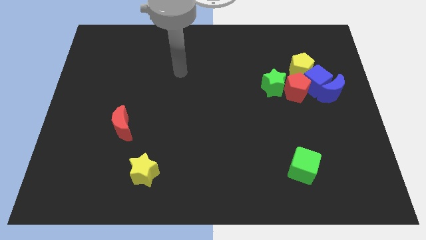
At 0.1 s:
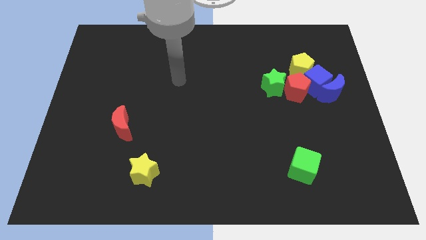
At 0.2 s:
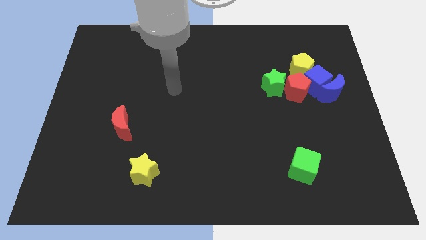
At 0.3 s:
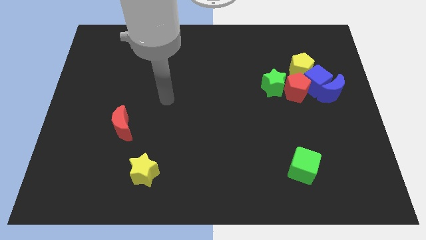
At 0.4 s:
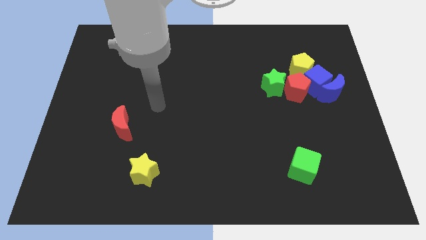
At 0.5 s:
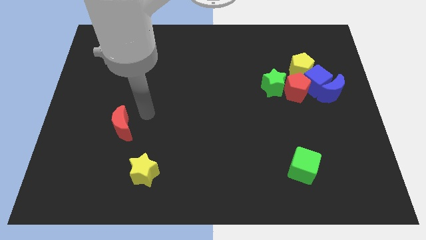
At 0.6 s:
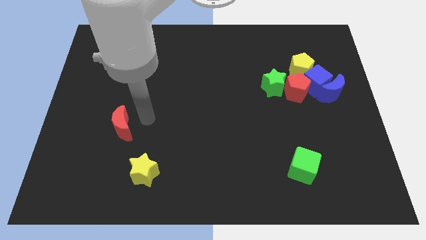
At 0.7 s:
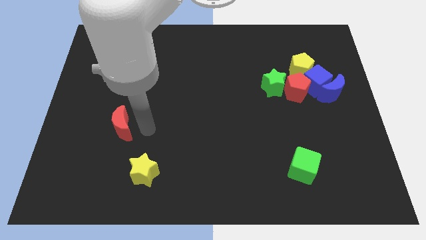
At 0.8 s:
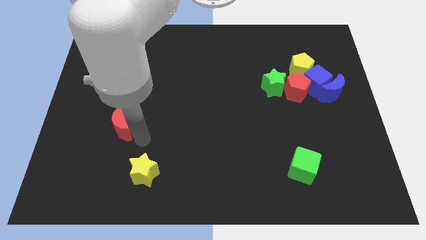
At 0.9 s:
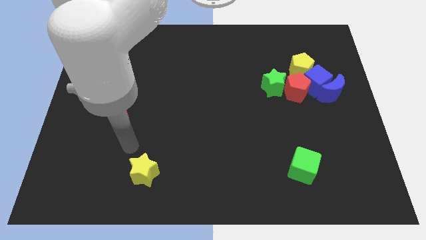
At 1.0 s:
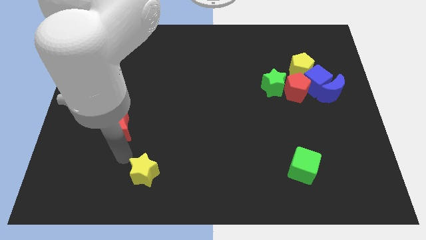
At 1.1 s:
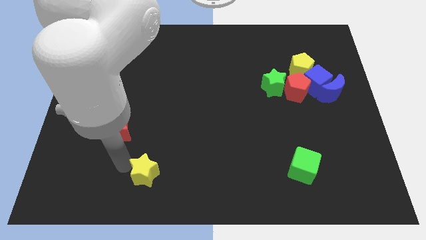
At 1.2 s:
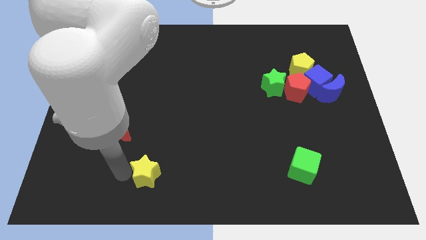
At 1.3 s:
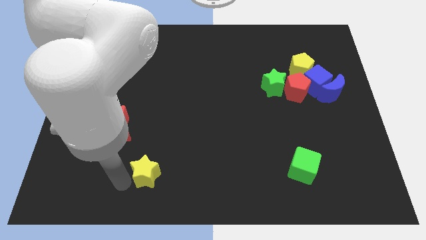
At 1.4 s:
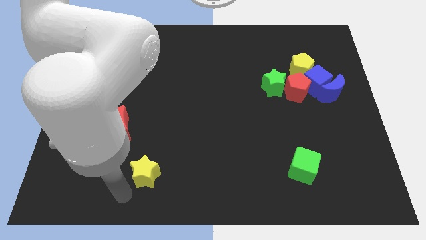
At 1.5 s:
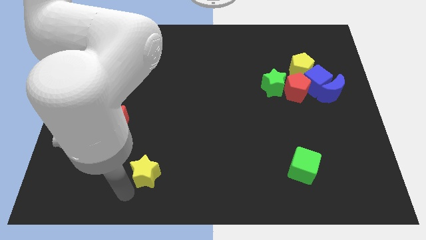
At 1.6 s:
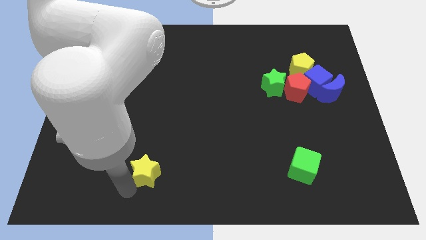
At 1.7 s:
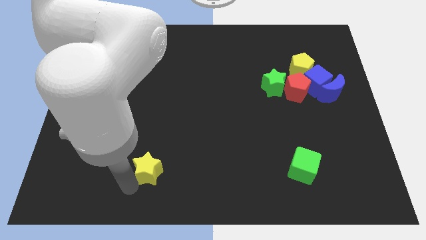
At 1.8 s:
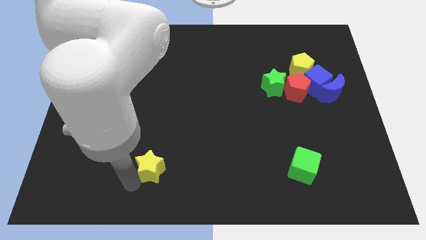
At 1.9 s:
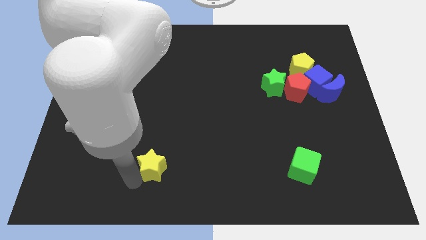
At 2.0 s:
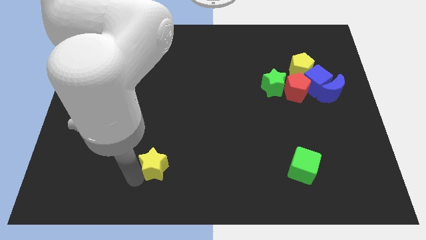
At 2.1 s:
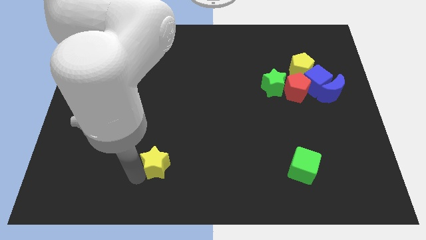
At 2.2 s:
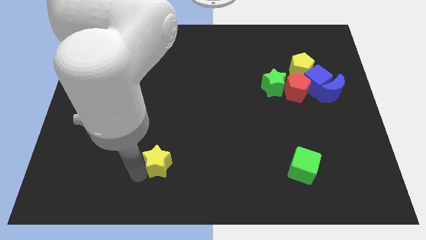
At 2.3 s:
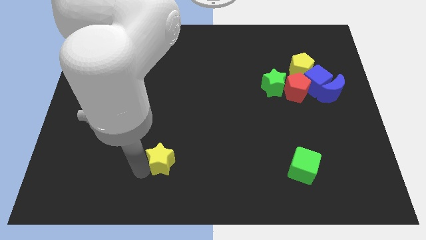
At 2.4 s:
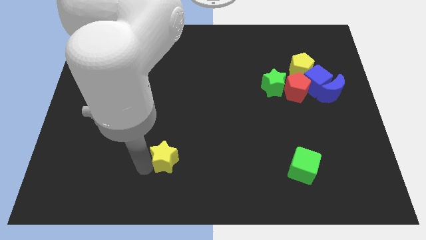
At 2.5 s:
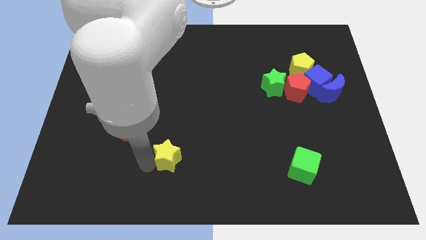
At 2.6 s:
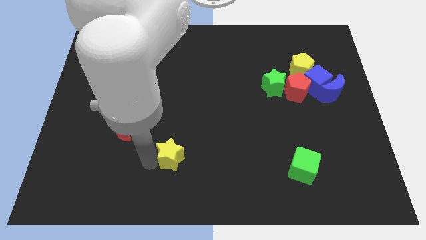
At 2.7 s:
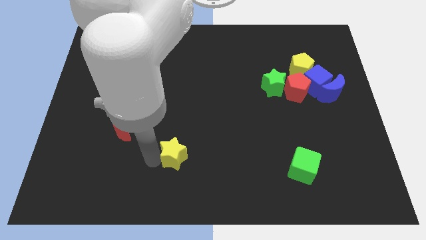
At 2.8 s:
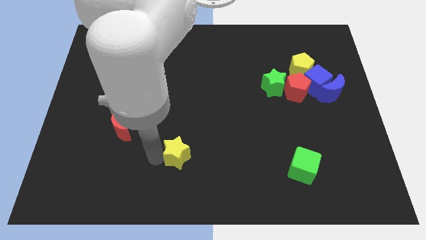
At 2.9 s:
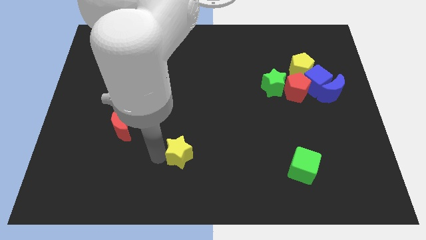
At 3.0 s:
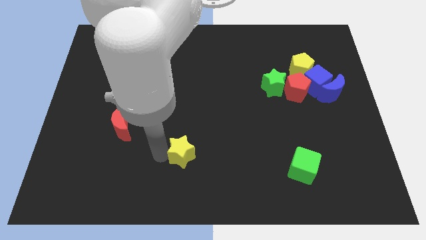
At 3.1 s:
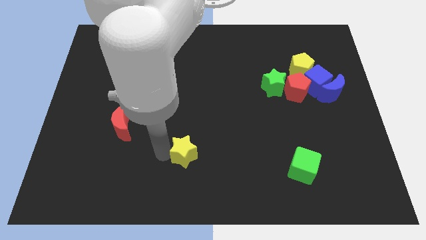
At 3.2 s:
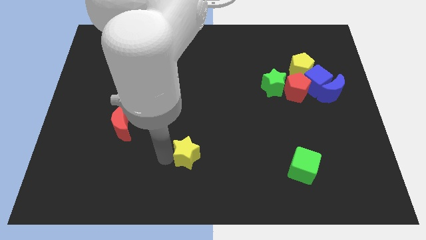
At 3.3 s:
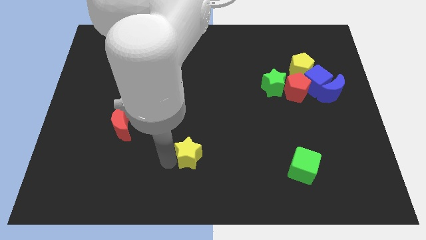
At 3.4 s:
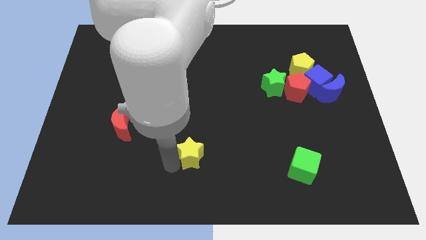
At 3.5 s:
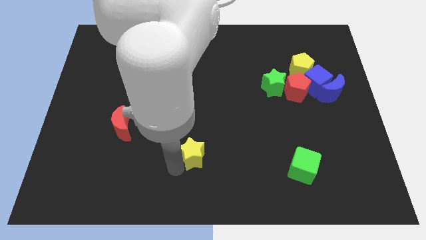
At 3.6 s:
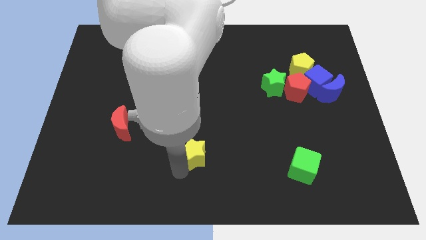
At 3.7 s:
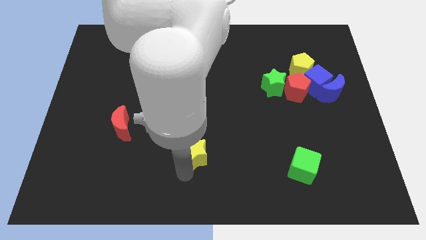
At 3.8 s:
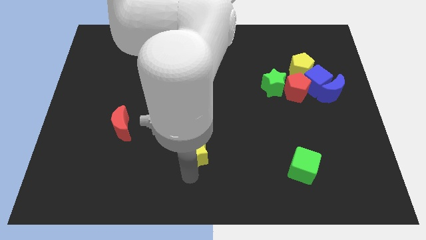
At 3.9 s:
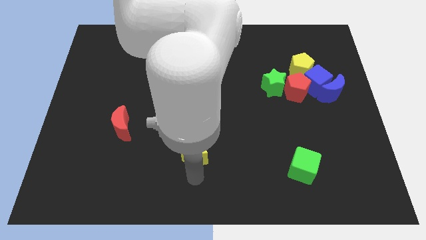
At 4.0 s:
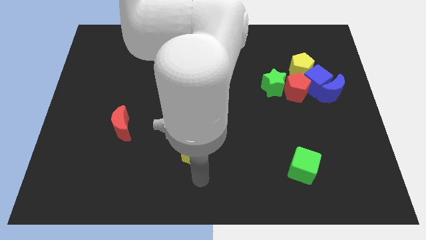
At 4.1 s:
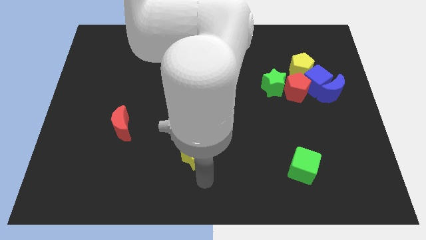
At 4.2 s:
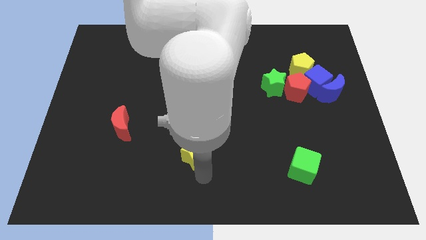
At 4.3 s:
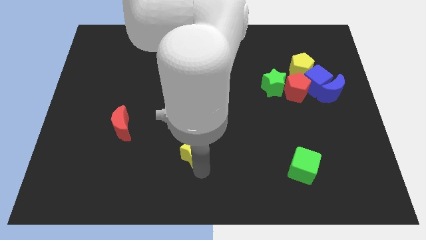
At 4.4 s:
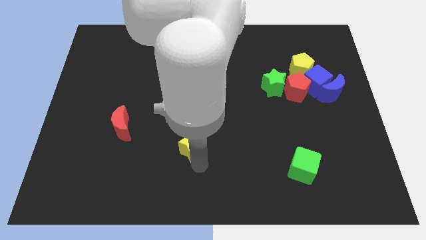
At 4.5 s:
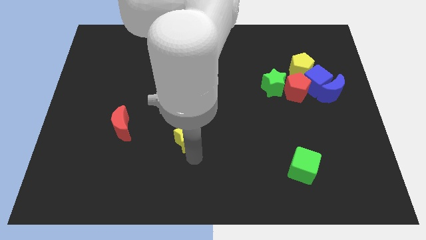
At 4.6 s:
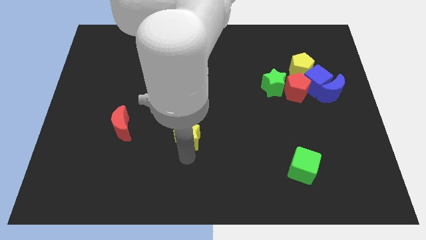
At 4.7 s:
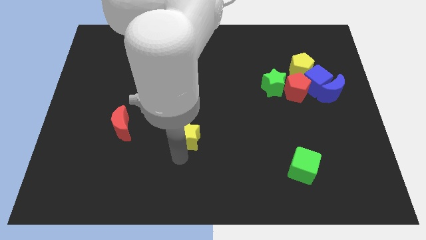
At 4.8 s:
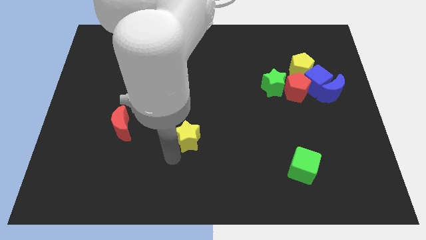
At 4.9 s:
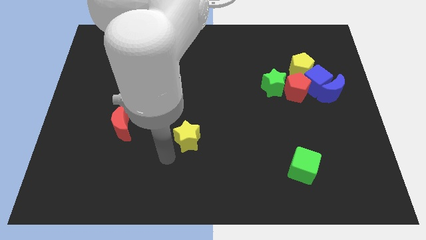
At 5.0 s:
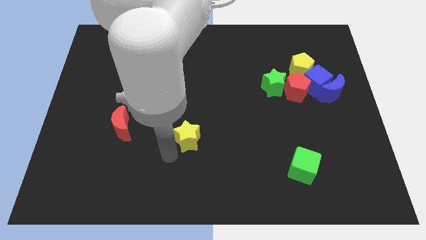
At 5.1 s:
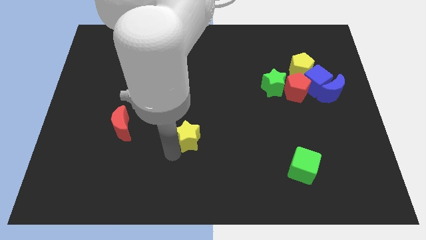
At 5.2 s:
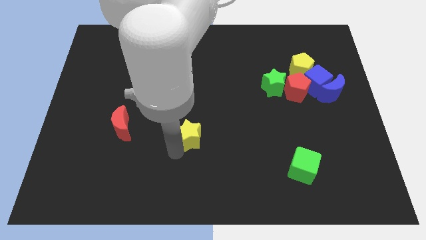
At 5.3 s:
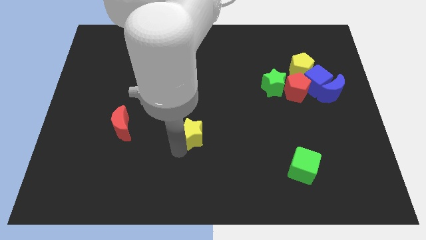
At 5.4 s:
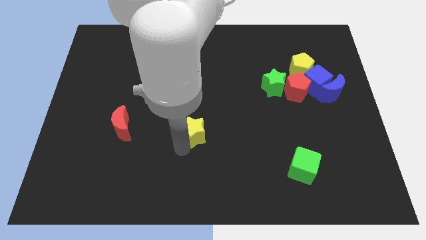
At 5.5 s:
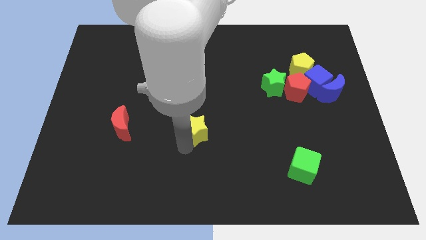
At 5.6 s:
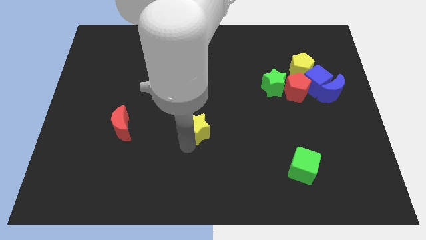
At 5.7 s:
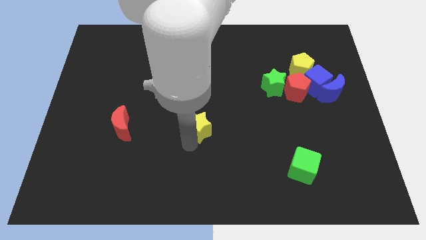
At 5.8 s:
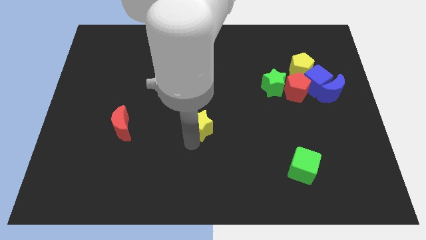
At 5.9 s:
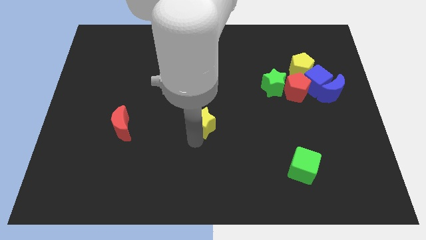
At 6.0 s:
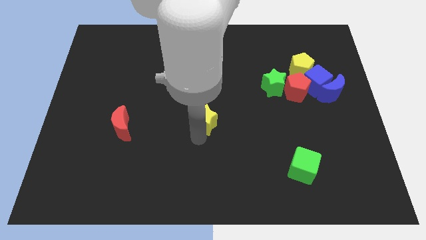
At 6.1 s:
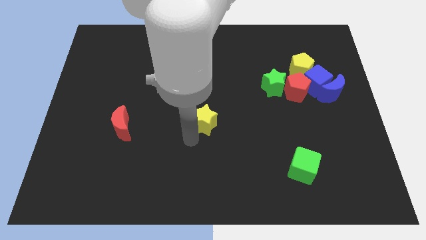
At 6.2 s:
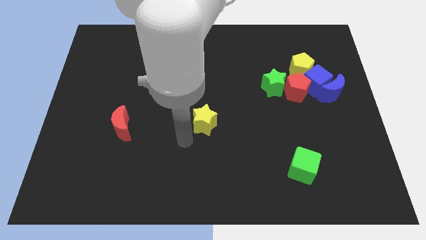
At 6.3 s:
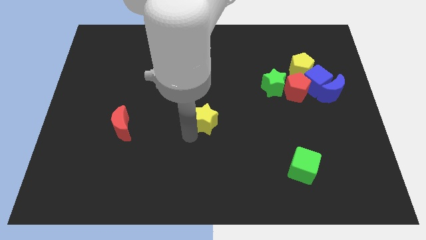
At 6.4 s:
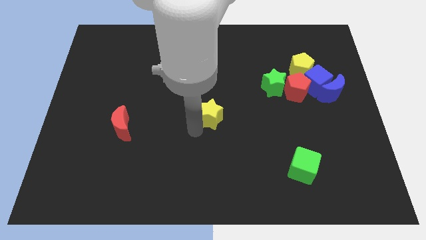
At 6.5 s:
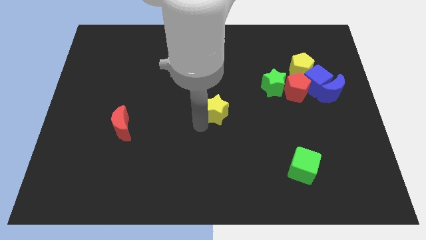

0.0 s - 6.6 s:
push the yellow star upwards and to the right diagonally

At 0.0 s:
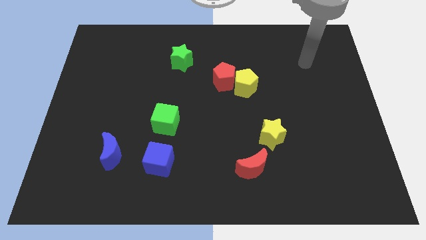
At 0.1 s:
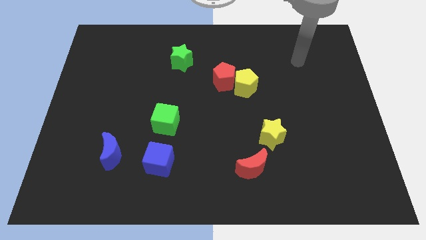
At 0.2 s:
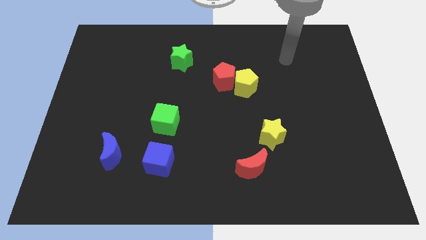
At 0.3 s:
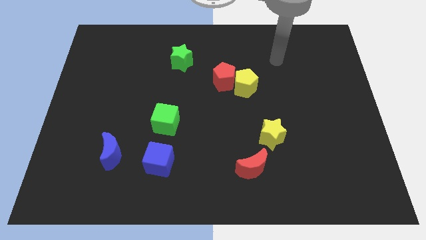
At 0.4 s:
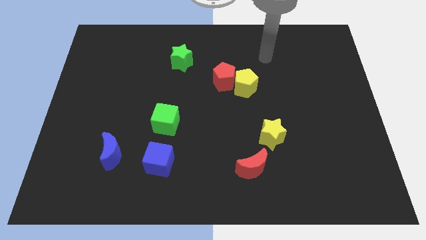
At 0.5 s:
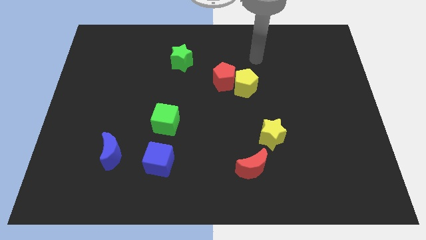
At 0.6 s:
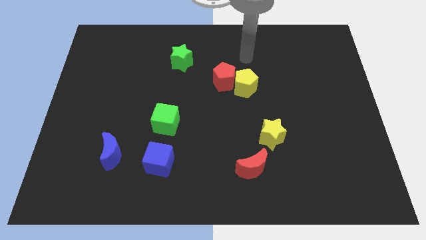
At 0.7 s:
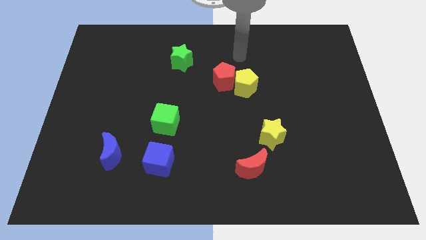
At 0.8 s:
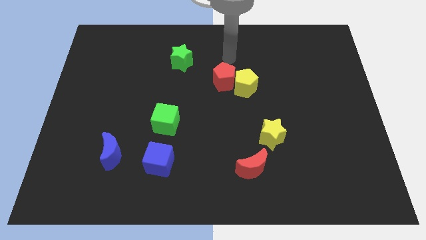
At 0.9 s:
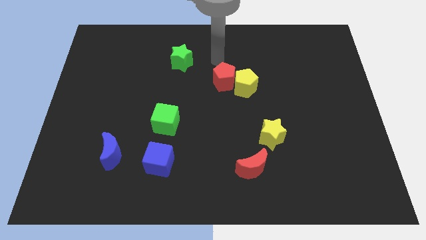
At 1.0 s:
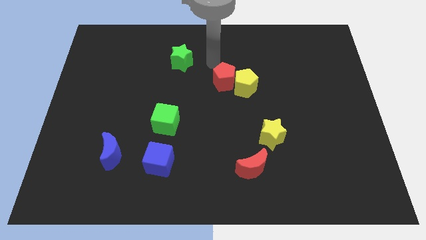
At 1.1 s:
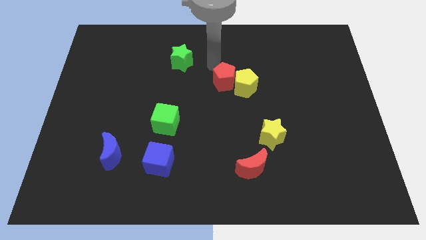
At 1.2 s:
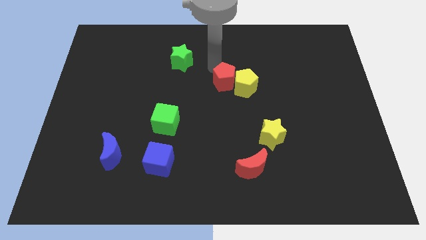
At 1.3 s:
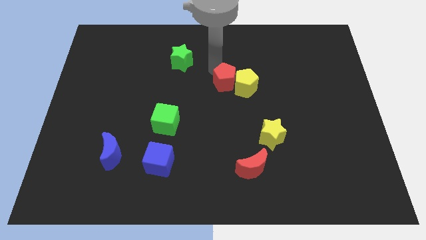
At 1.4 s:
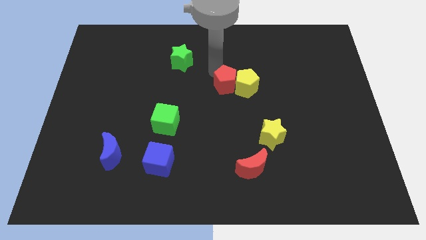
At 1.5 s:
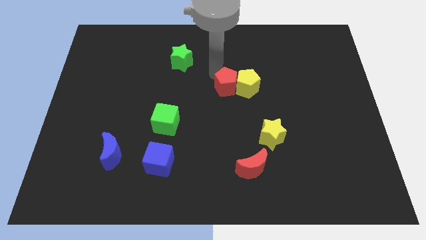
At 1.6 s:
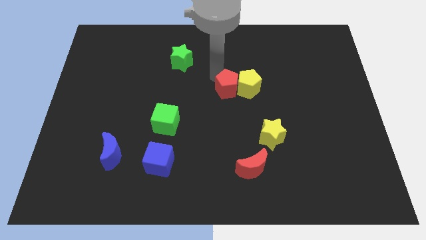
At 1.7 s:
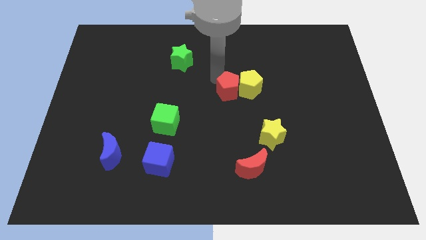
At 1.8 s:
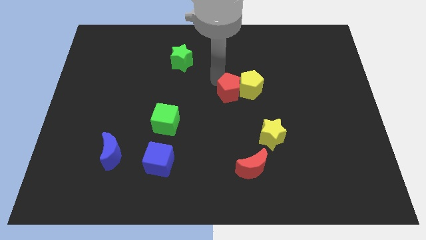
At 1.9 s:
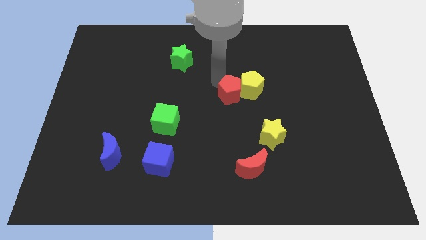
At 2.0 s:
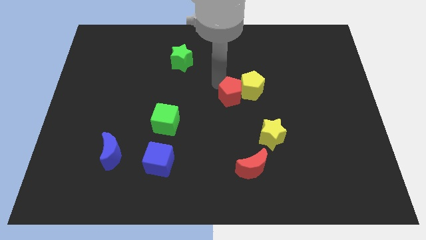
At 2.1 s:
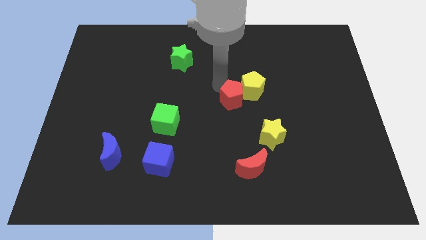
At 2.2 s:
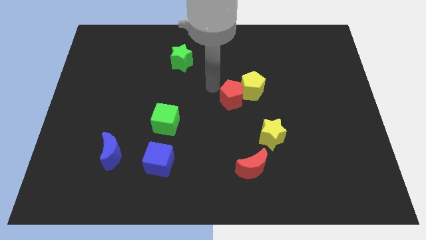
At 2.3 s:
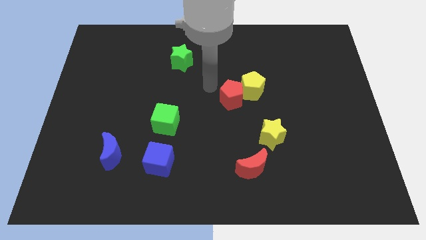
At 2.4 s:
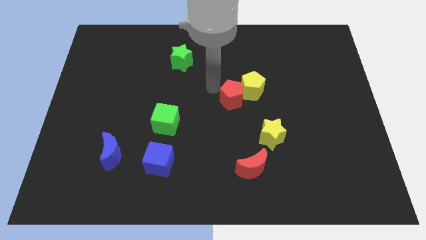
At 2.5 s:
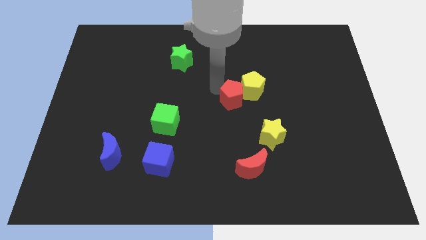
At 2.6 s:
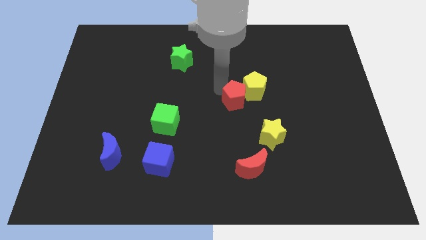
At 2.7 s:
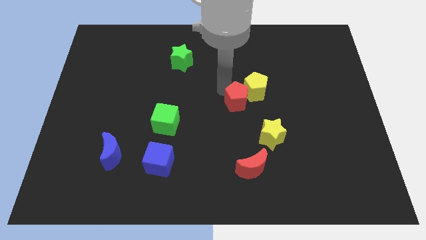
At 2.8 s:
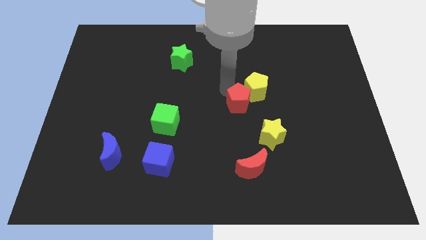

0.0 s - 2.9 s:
slightly push the red pentagon down and to the right diagonally
